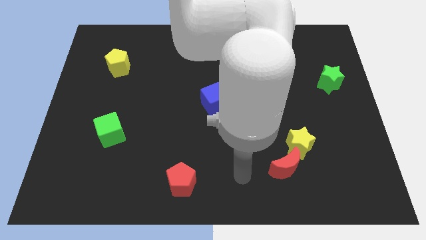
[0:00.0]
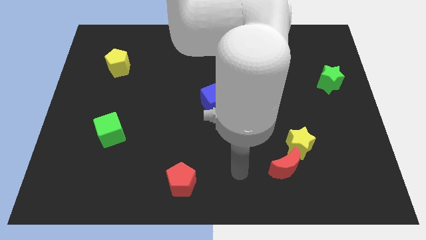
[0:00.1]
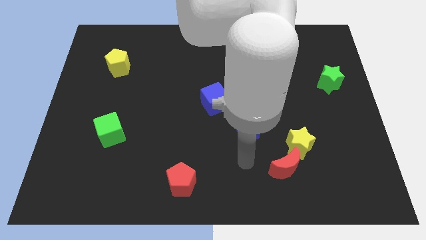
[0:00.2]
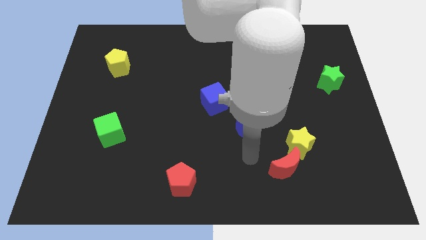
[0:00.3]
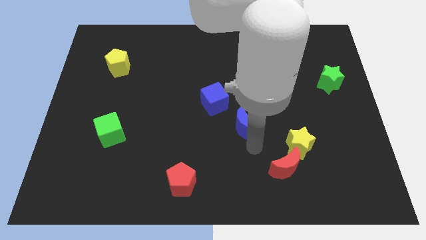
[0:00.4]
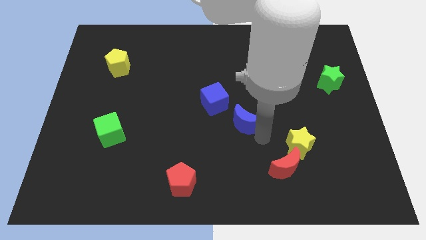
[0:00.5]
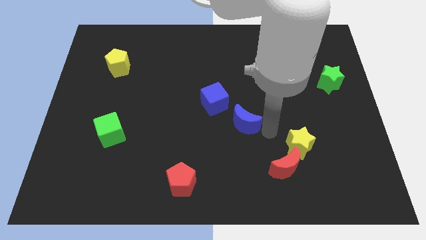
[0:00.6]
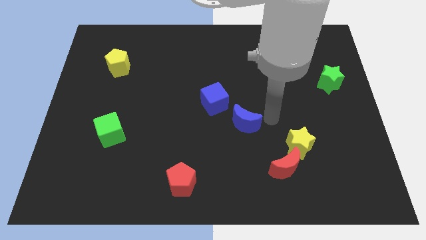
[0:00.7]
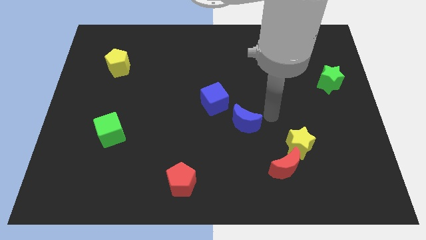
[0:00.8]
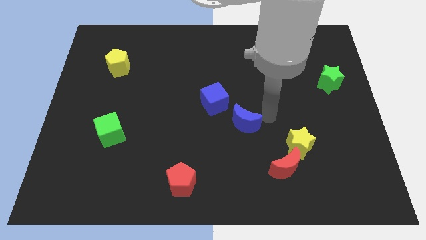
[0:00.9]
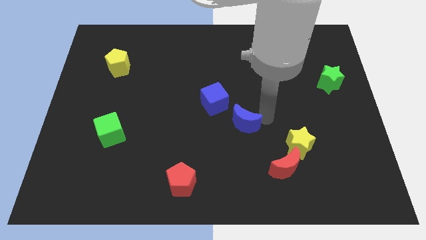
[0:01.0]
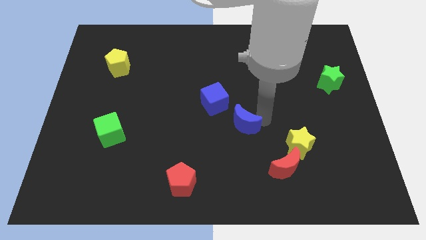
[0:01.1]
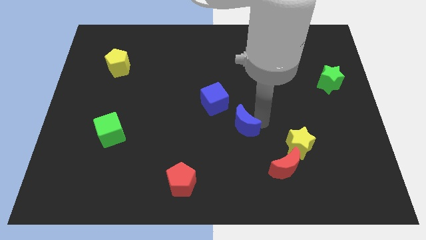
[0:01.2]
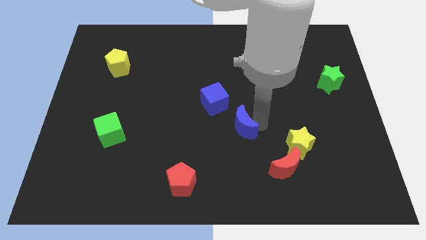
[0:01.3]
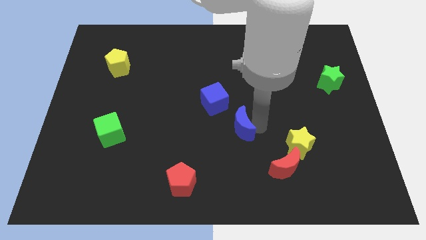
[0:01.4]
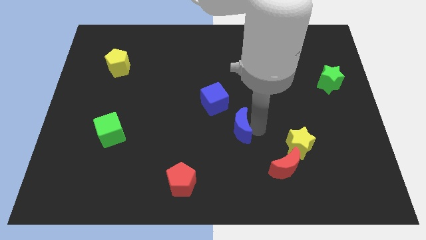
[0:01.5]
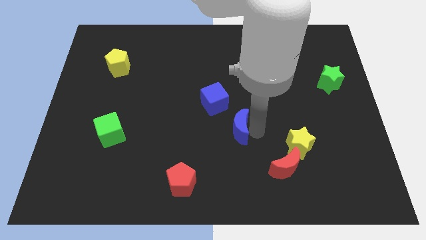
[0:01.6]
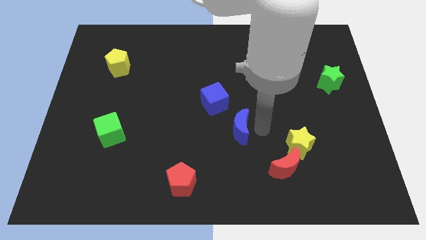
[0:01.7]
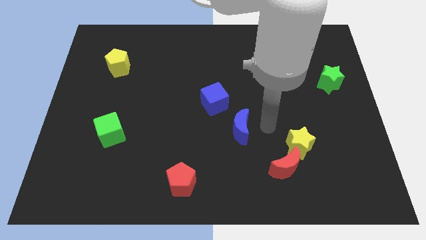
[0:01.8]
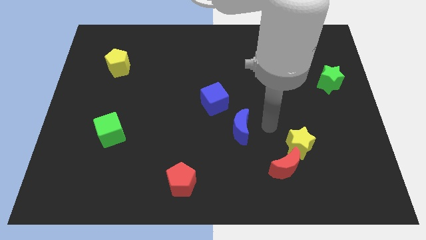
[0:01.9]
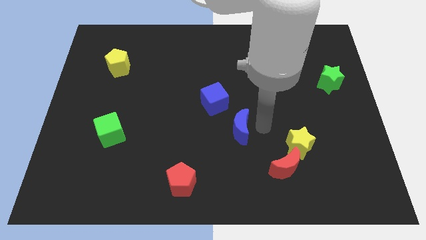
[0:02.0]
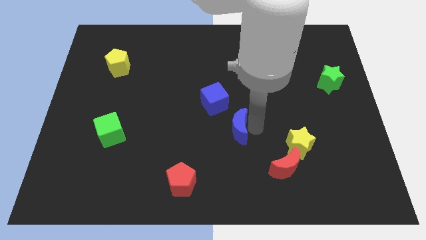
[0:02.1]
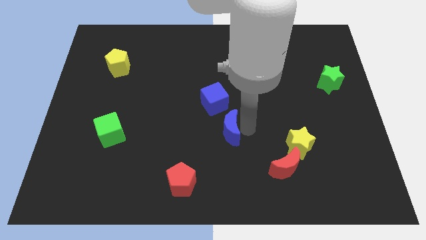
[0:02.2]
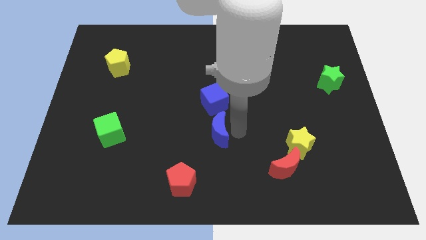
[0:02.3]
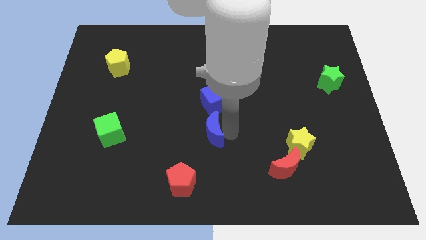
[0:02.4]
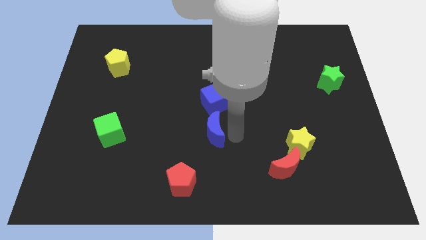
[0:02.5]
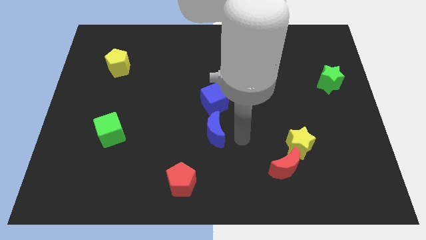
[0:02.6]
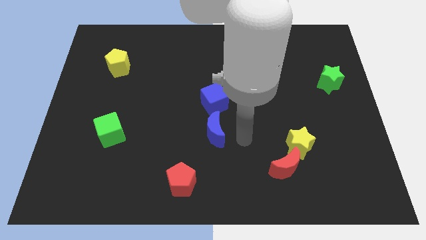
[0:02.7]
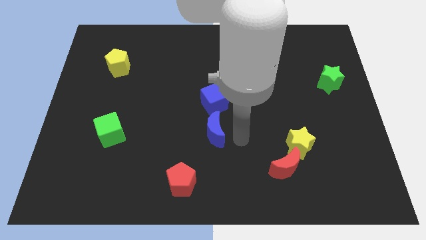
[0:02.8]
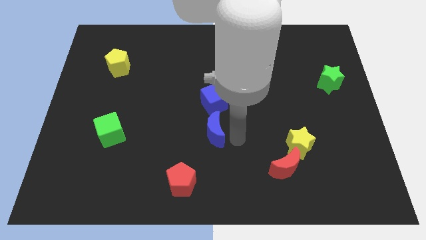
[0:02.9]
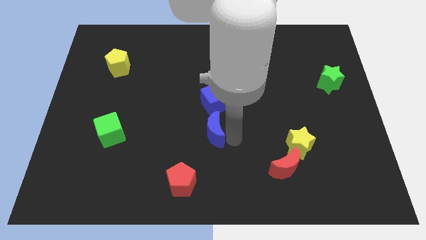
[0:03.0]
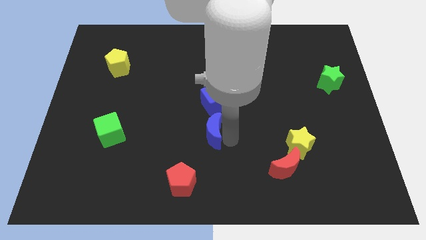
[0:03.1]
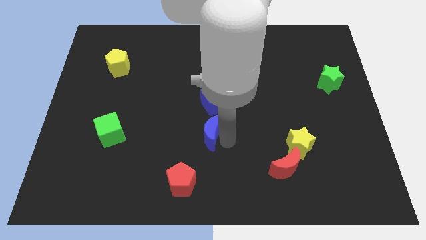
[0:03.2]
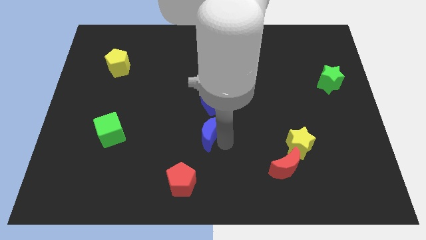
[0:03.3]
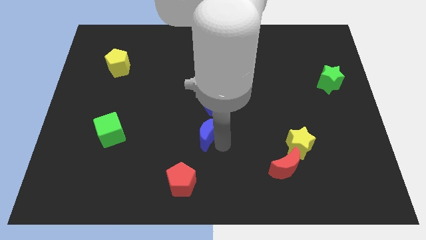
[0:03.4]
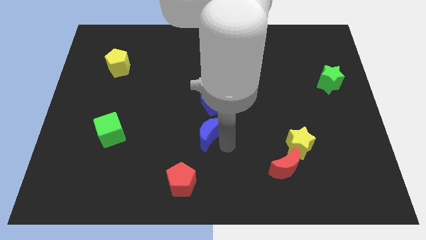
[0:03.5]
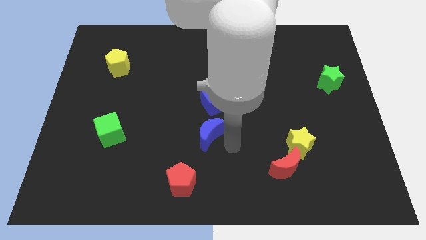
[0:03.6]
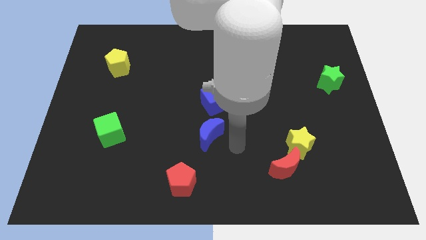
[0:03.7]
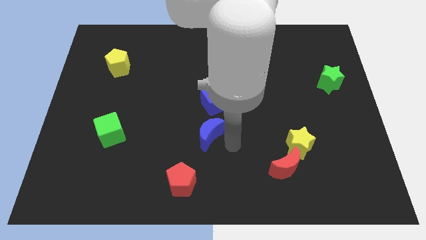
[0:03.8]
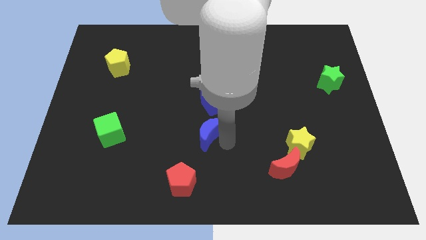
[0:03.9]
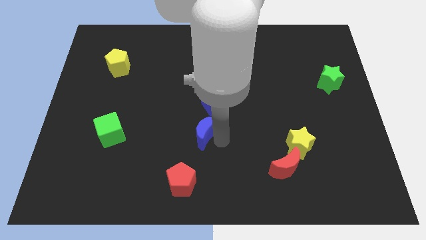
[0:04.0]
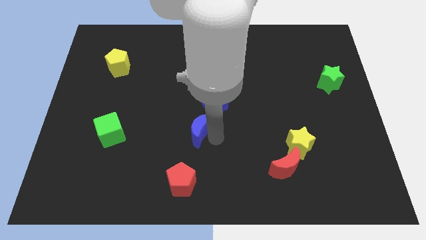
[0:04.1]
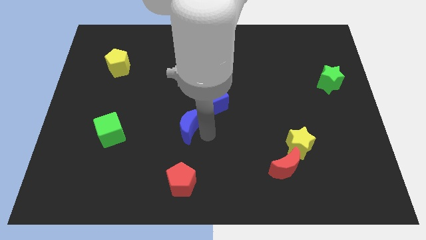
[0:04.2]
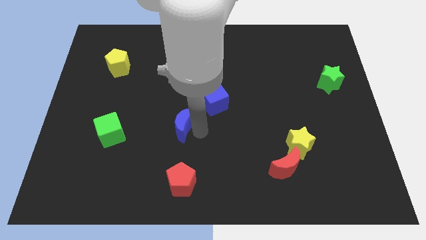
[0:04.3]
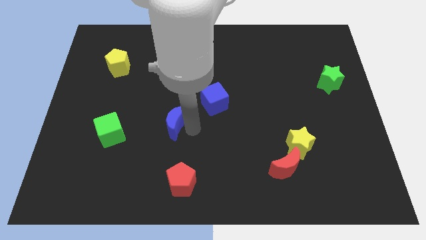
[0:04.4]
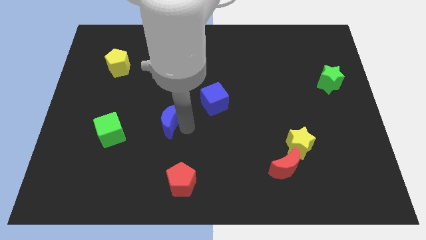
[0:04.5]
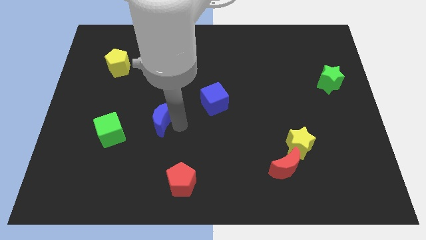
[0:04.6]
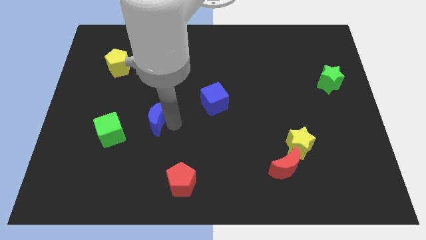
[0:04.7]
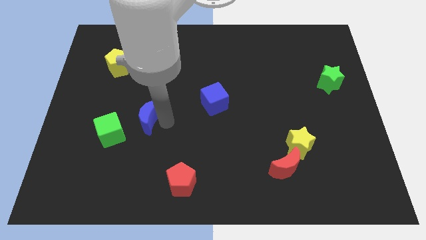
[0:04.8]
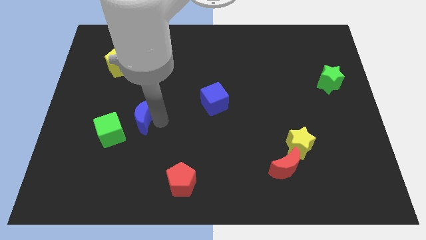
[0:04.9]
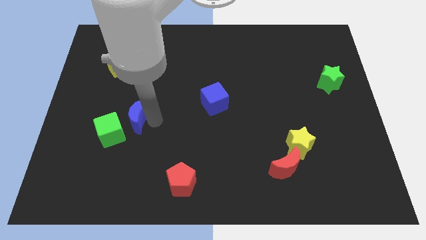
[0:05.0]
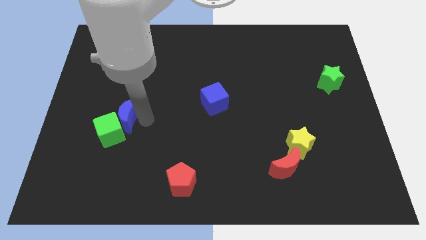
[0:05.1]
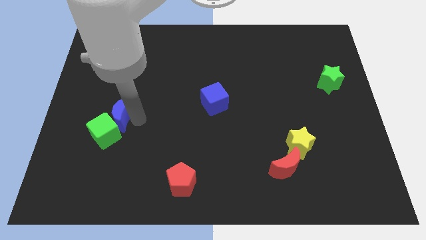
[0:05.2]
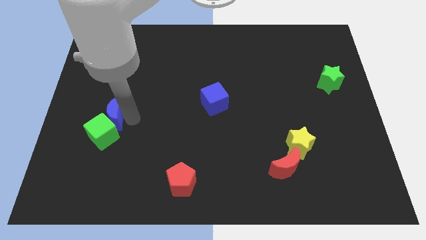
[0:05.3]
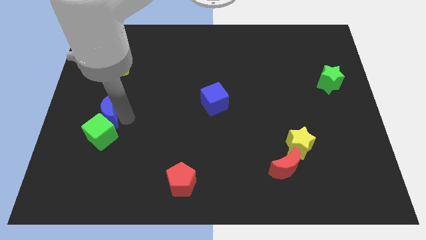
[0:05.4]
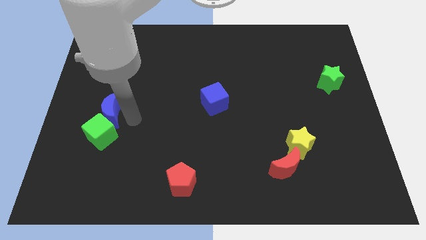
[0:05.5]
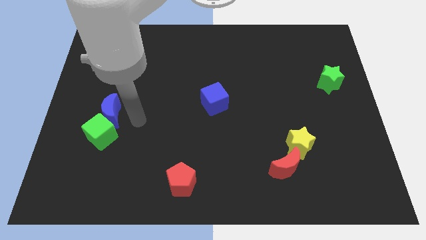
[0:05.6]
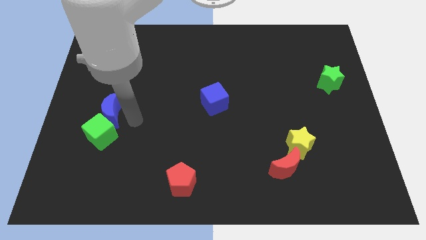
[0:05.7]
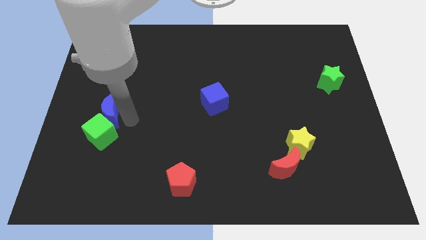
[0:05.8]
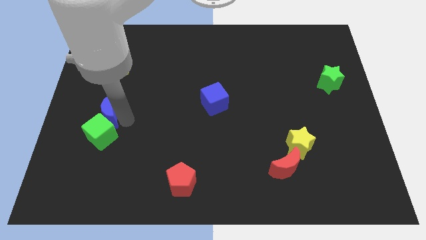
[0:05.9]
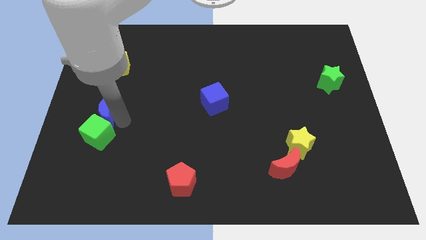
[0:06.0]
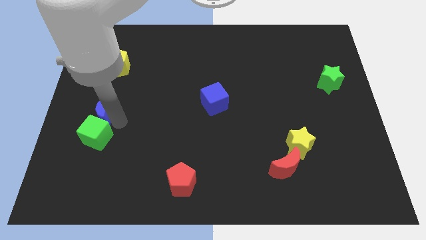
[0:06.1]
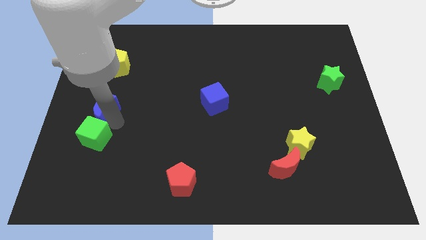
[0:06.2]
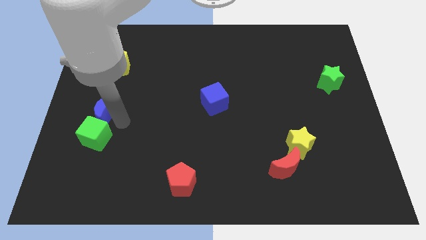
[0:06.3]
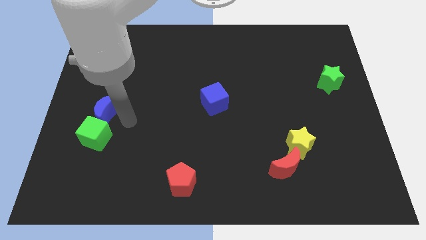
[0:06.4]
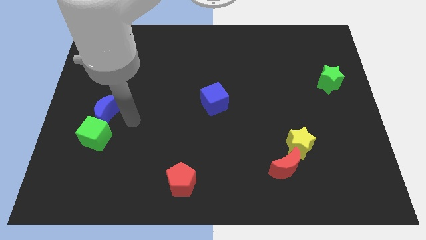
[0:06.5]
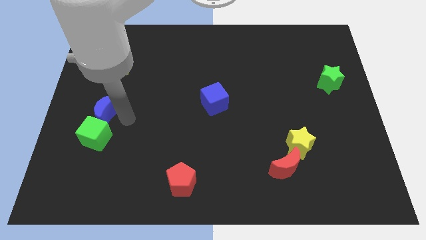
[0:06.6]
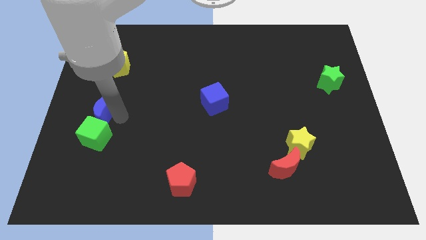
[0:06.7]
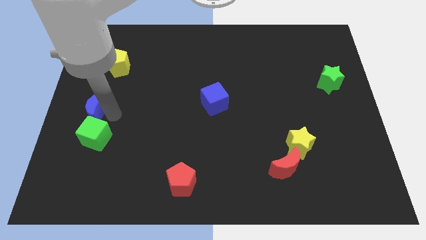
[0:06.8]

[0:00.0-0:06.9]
slide the blue moon to the center left

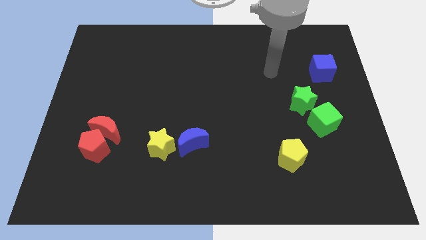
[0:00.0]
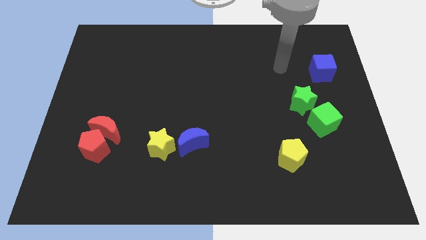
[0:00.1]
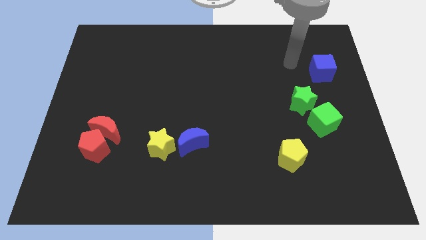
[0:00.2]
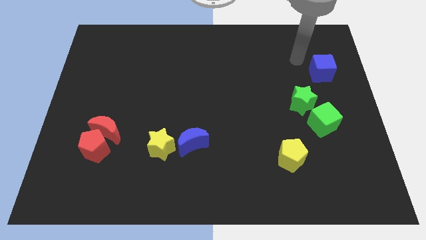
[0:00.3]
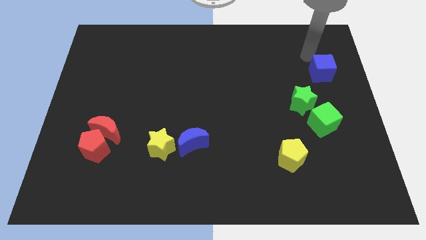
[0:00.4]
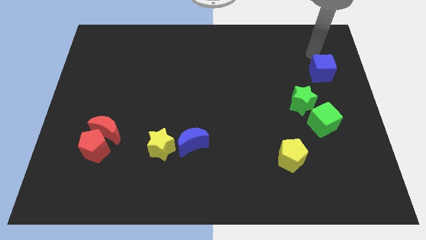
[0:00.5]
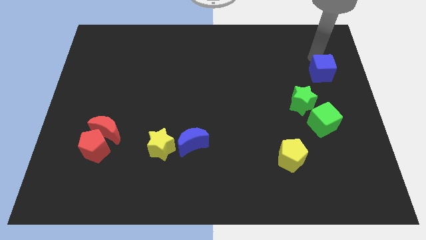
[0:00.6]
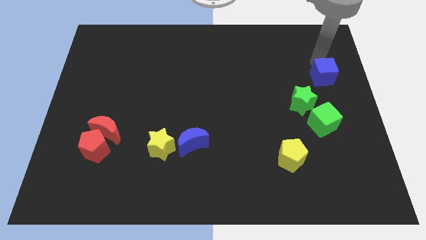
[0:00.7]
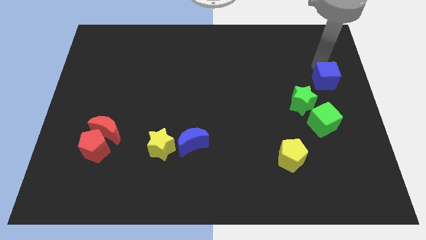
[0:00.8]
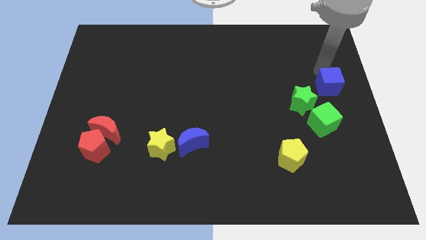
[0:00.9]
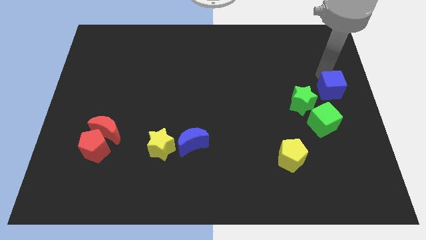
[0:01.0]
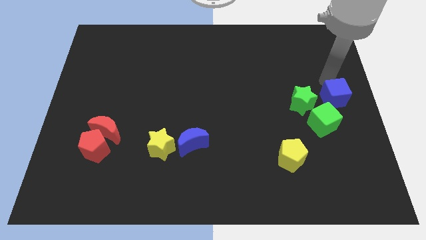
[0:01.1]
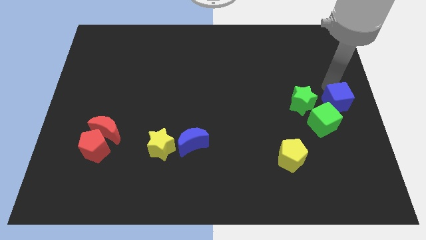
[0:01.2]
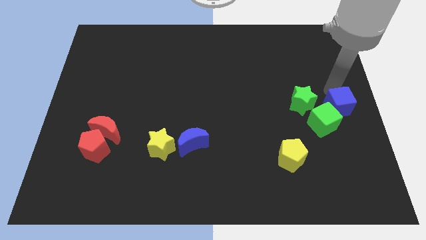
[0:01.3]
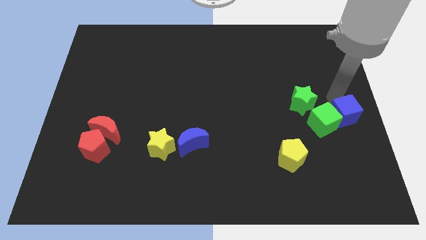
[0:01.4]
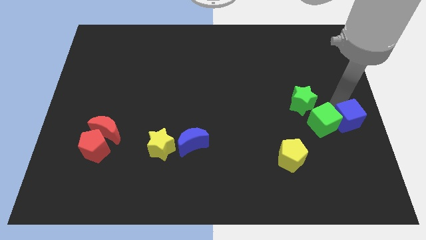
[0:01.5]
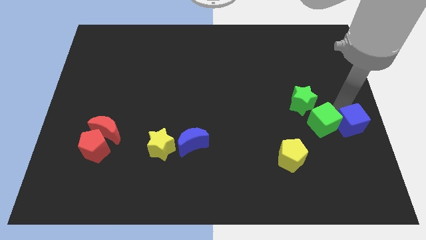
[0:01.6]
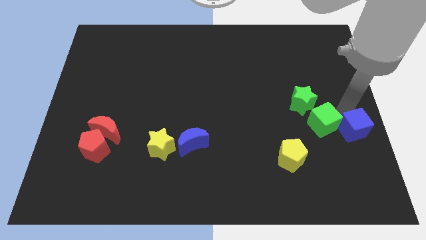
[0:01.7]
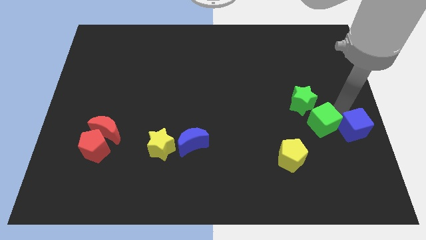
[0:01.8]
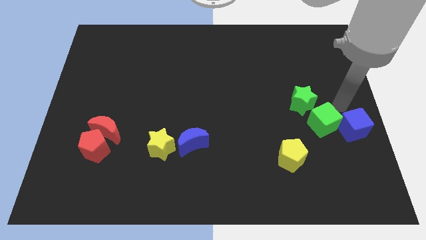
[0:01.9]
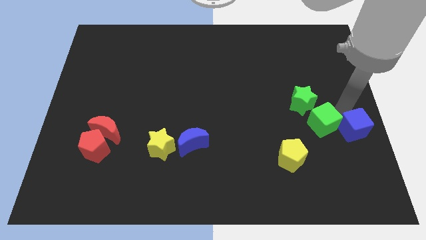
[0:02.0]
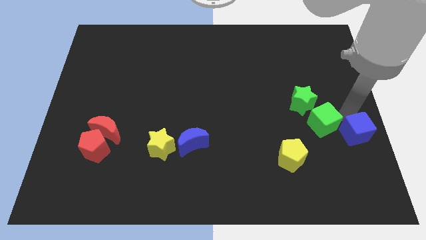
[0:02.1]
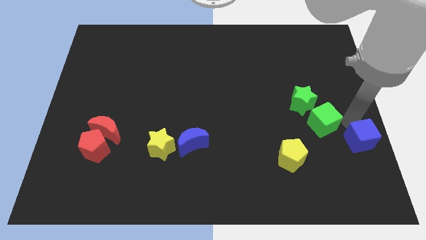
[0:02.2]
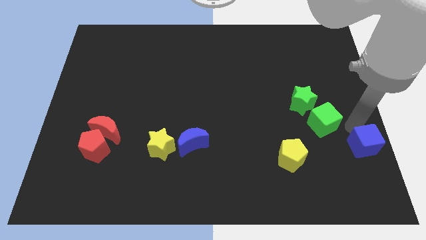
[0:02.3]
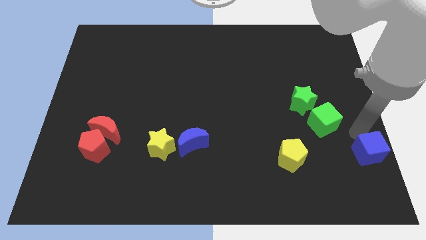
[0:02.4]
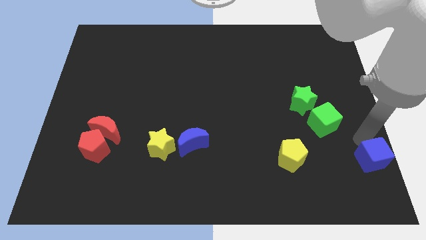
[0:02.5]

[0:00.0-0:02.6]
put the blue cube to the bottom right of the board
